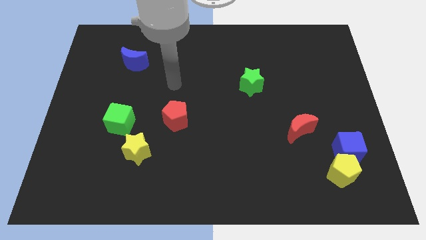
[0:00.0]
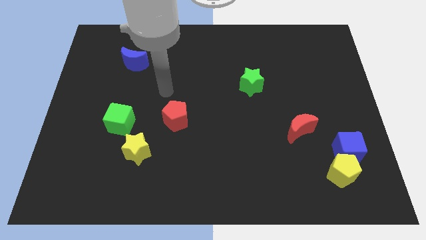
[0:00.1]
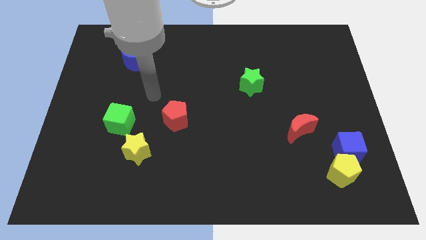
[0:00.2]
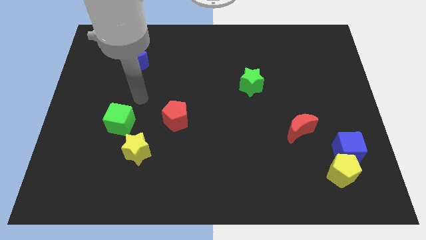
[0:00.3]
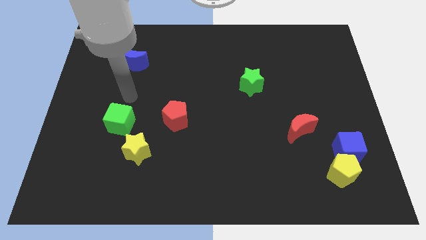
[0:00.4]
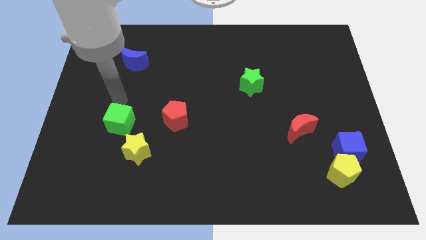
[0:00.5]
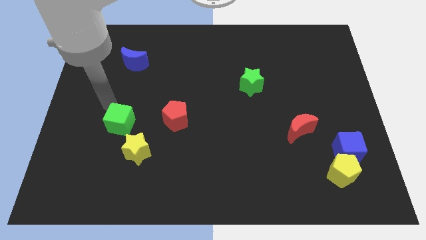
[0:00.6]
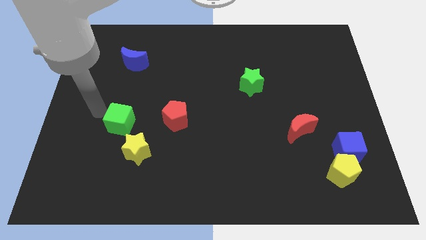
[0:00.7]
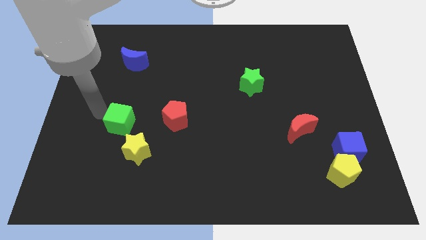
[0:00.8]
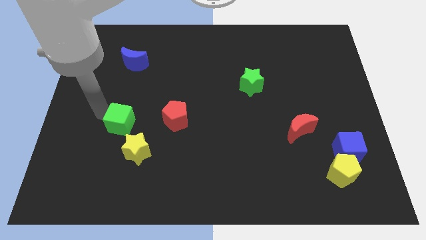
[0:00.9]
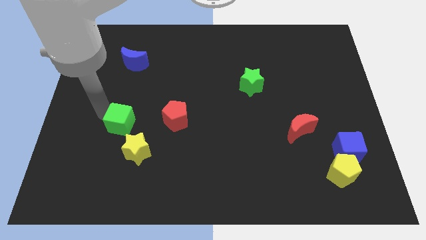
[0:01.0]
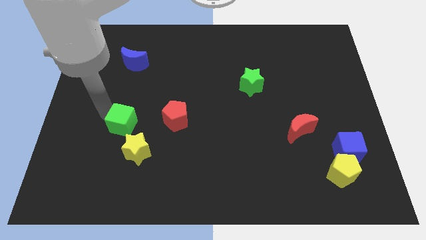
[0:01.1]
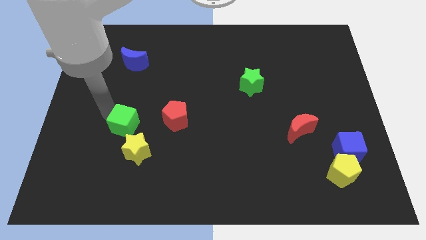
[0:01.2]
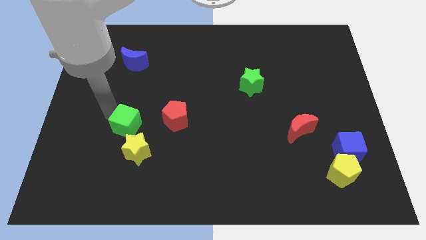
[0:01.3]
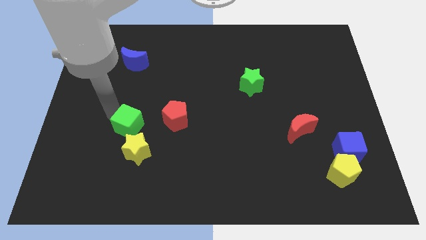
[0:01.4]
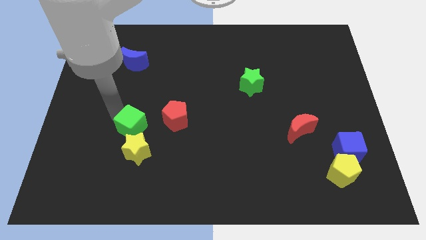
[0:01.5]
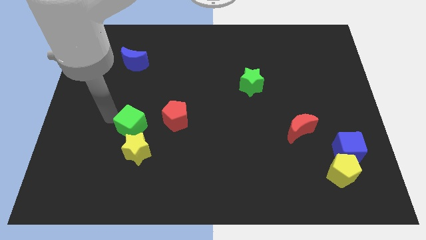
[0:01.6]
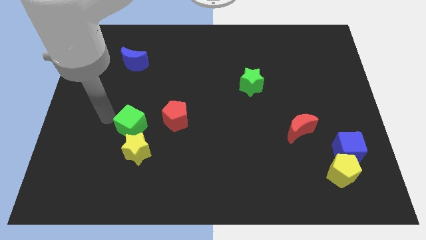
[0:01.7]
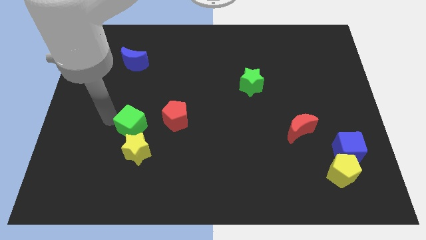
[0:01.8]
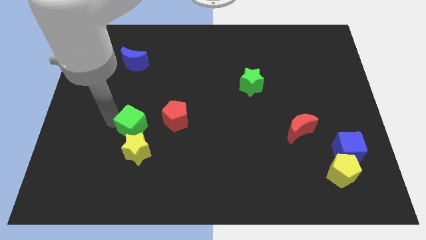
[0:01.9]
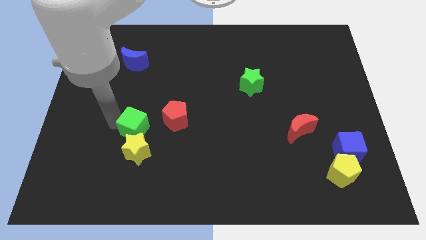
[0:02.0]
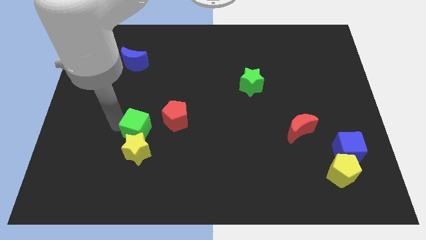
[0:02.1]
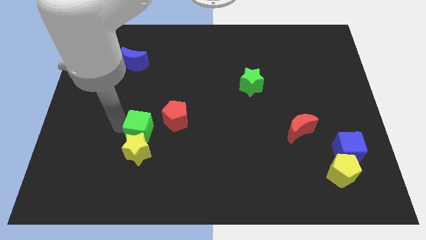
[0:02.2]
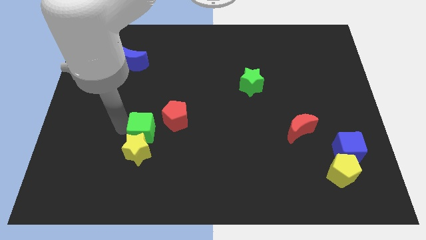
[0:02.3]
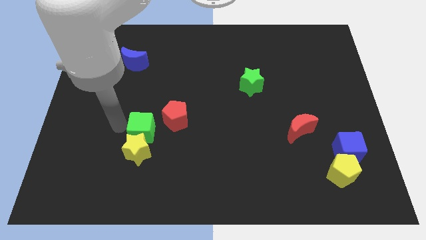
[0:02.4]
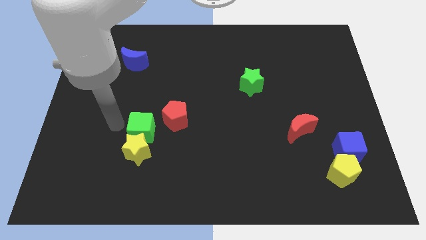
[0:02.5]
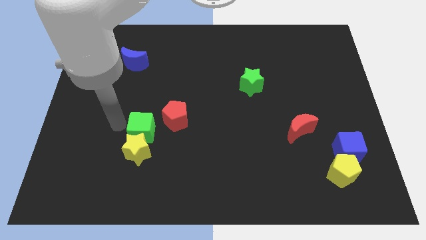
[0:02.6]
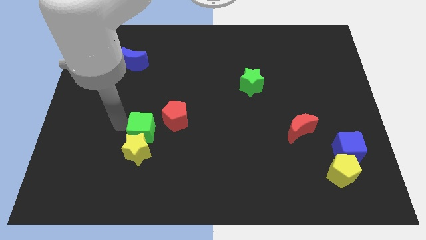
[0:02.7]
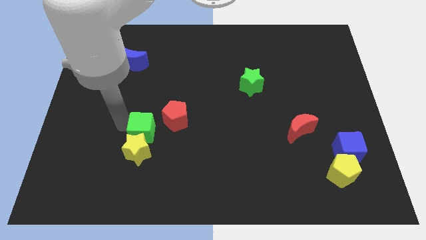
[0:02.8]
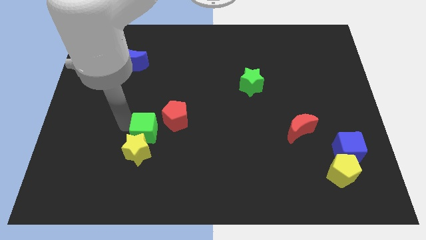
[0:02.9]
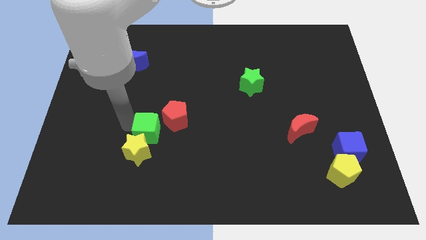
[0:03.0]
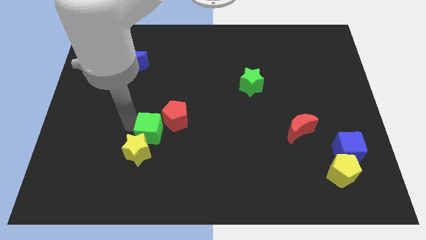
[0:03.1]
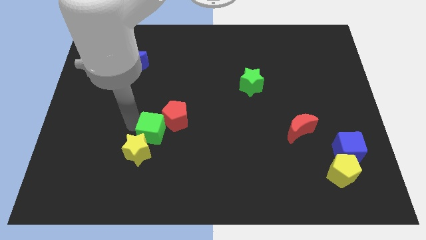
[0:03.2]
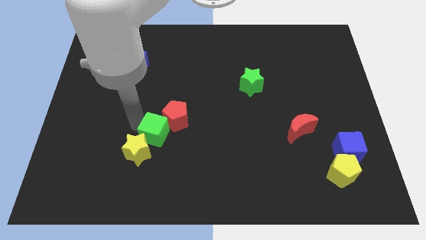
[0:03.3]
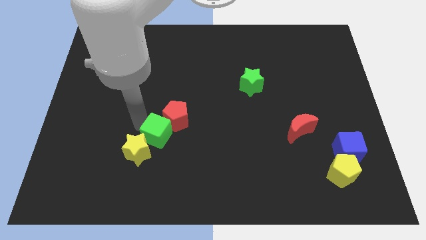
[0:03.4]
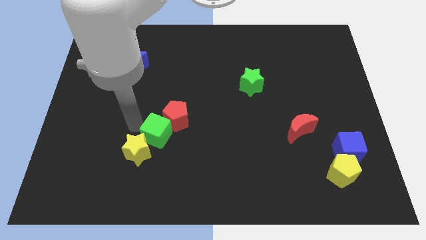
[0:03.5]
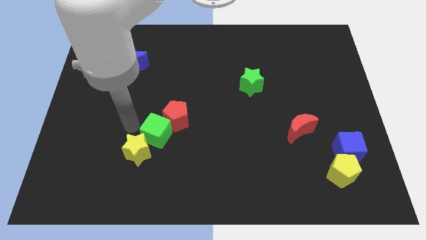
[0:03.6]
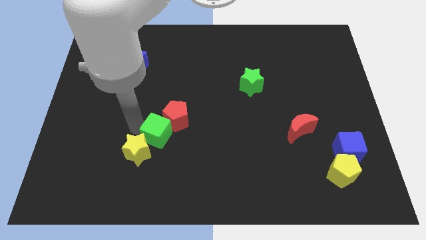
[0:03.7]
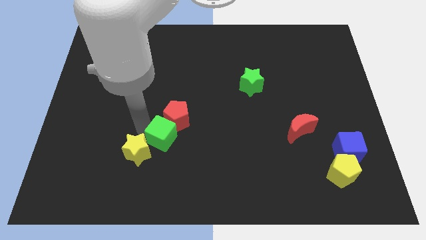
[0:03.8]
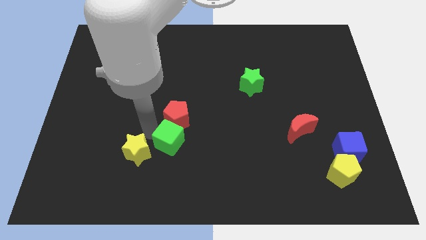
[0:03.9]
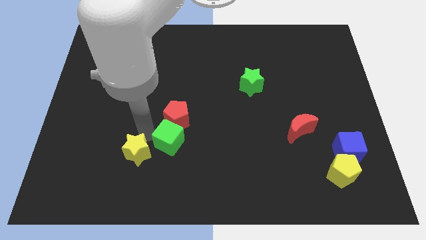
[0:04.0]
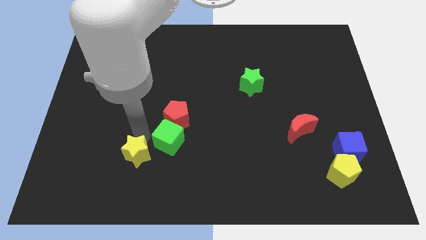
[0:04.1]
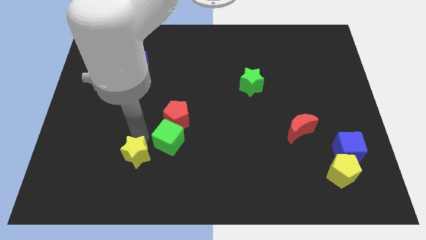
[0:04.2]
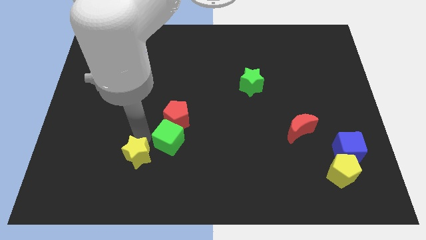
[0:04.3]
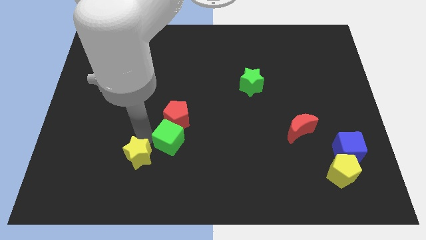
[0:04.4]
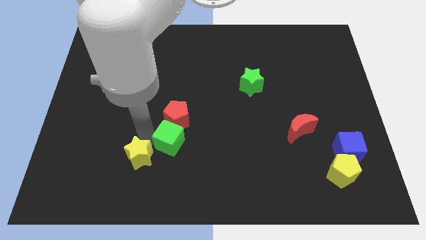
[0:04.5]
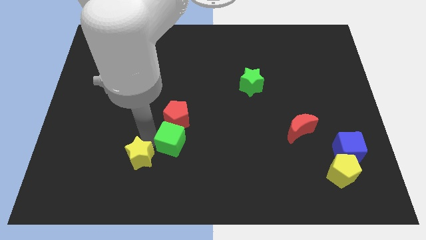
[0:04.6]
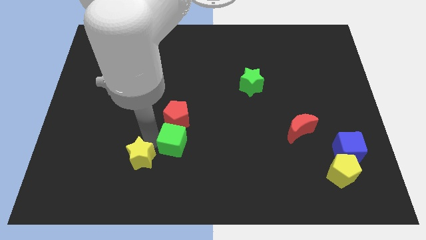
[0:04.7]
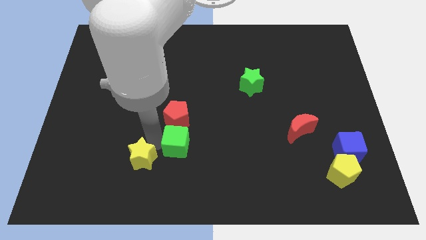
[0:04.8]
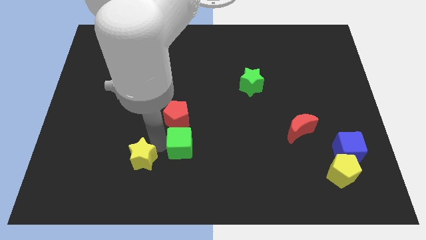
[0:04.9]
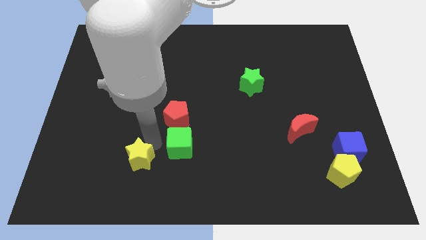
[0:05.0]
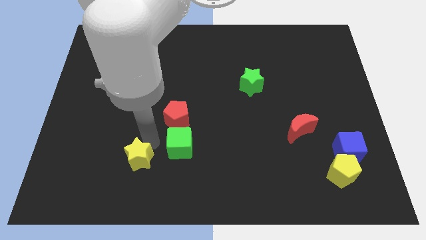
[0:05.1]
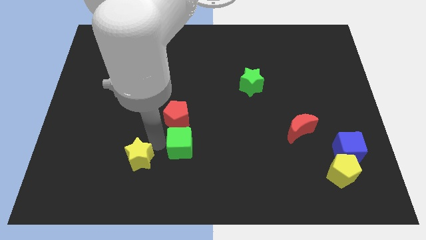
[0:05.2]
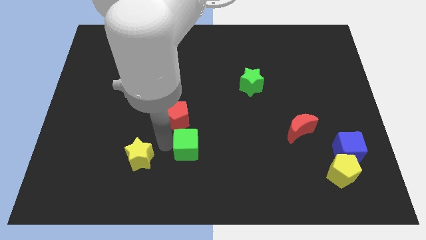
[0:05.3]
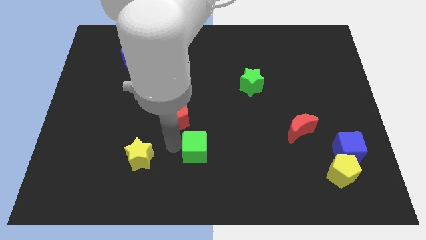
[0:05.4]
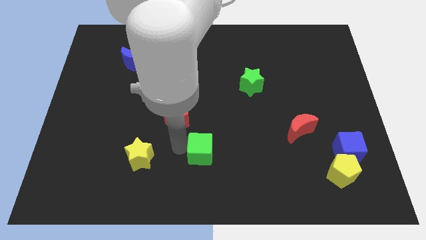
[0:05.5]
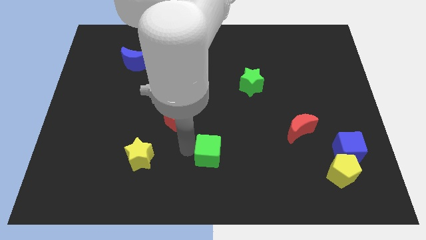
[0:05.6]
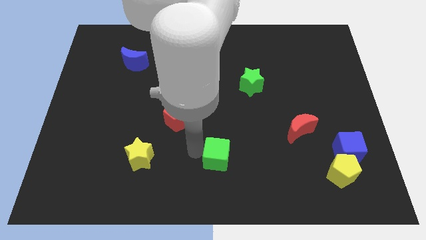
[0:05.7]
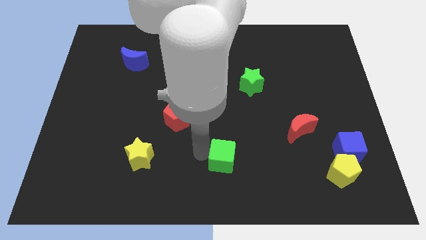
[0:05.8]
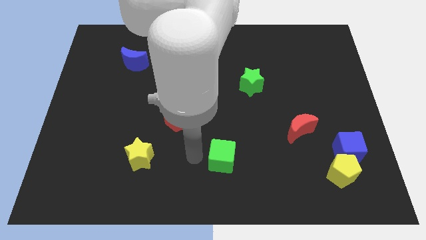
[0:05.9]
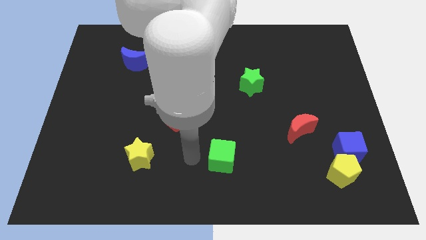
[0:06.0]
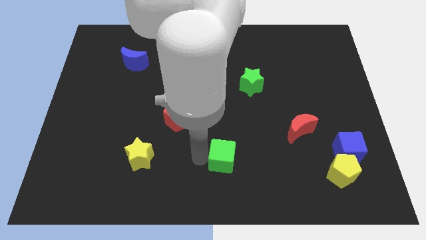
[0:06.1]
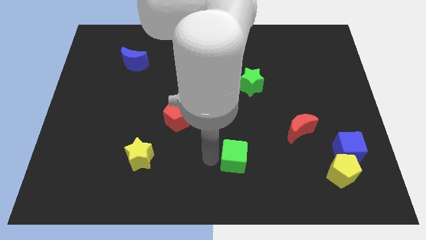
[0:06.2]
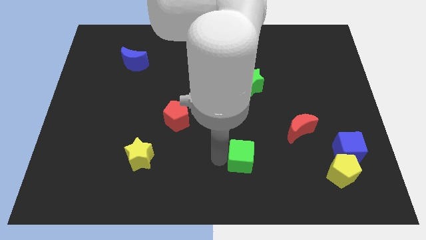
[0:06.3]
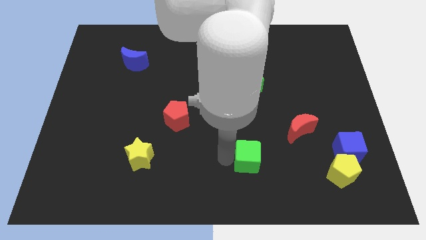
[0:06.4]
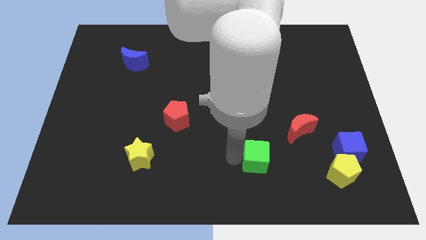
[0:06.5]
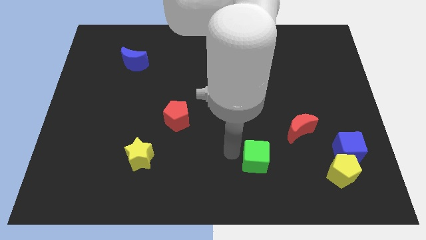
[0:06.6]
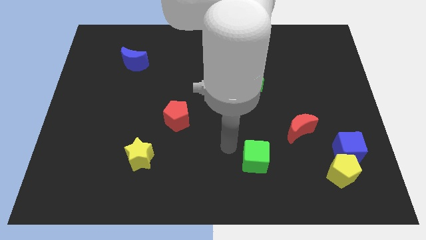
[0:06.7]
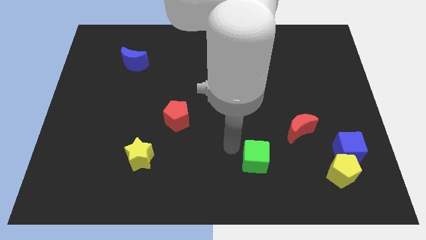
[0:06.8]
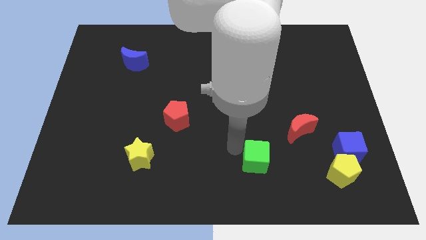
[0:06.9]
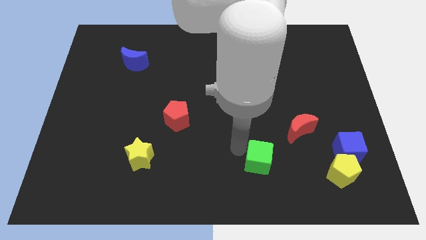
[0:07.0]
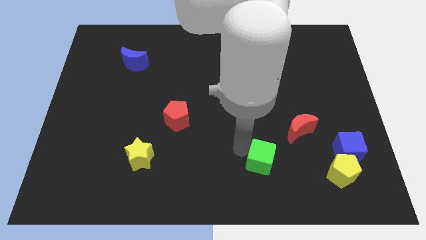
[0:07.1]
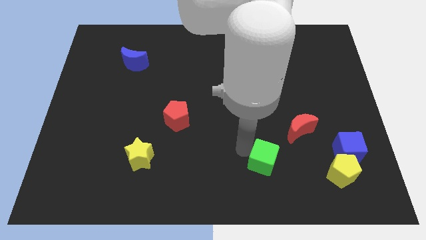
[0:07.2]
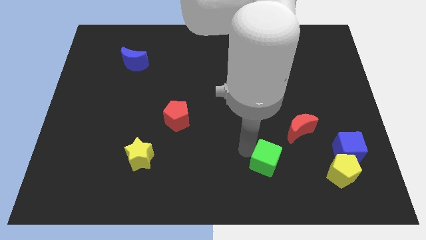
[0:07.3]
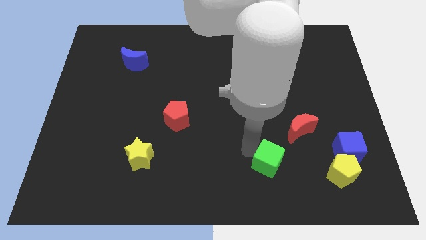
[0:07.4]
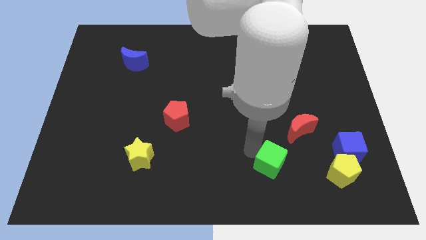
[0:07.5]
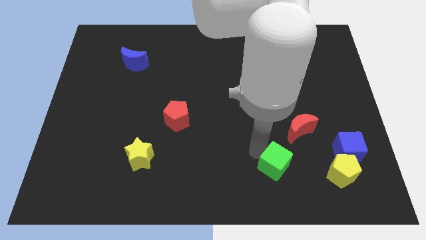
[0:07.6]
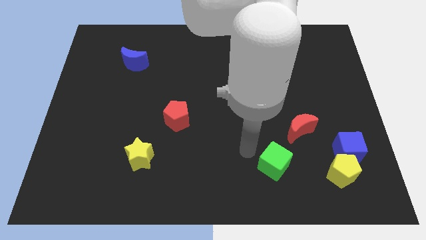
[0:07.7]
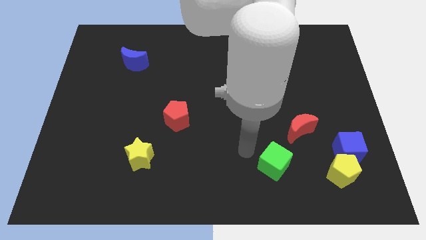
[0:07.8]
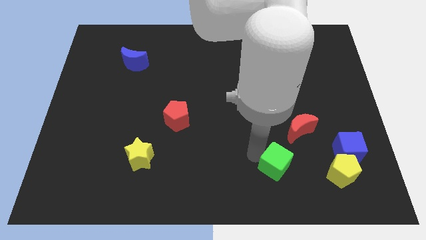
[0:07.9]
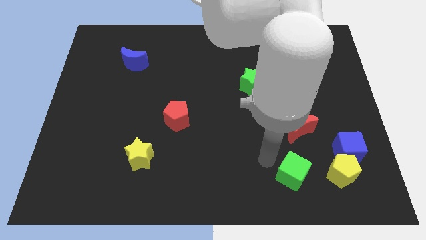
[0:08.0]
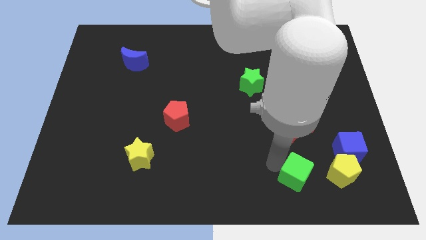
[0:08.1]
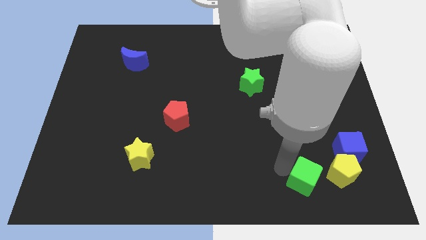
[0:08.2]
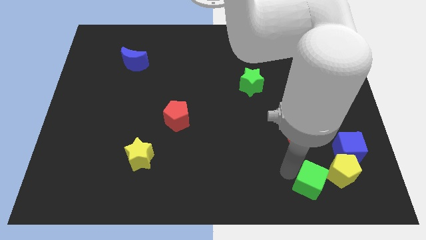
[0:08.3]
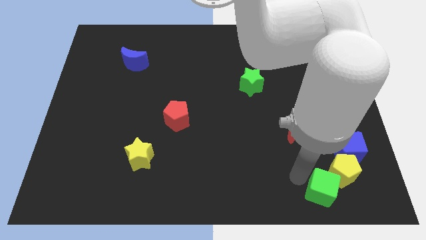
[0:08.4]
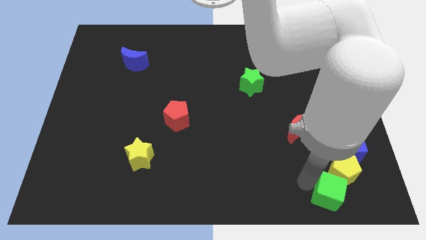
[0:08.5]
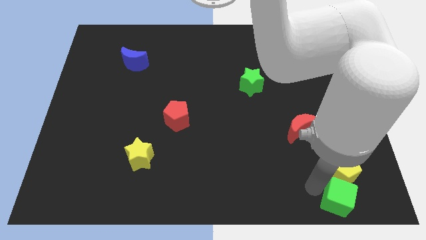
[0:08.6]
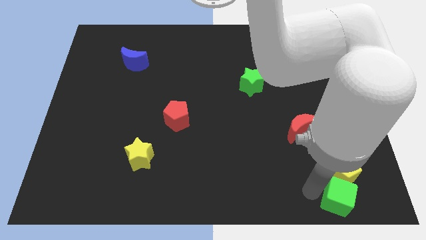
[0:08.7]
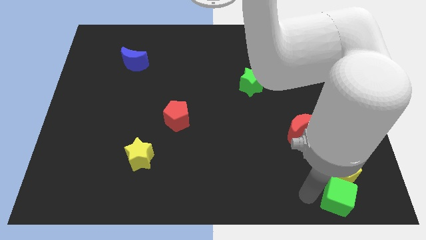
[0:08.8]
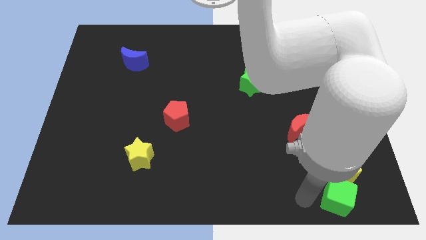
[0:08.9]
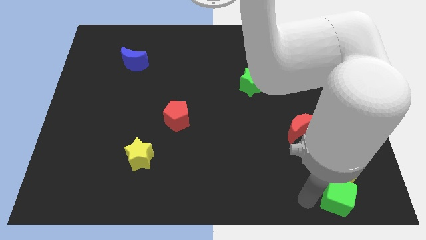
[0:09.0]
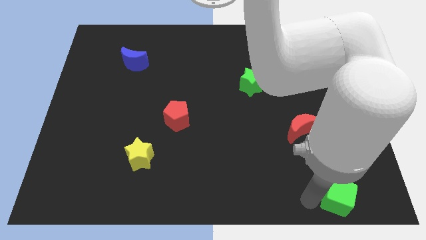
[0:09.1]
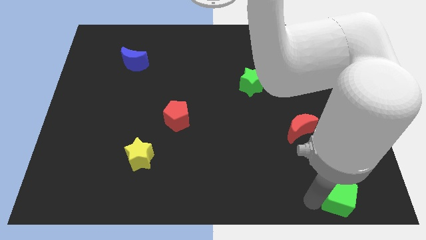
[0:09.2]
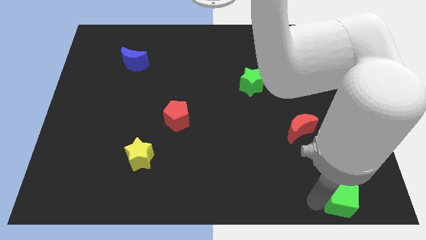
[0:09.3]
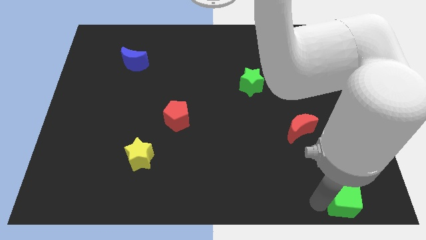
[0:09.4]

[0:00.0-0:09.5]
push the green cube to the bottom right of the board
